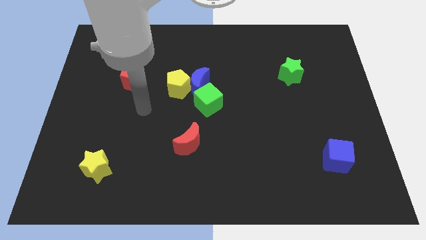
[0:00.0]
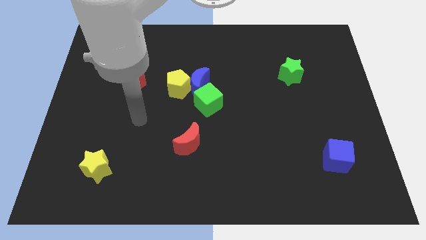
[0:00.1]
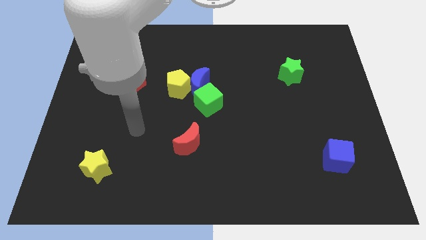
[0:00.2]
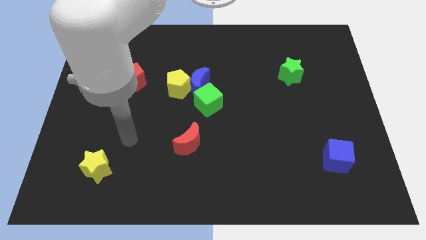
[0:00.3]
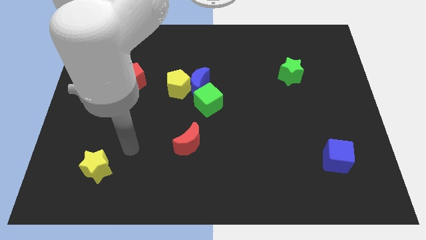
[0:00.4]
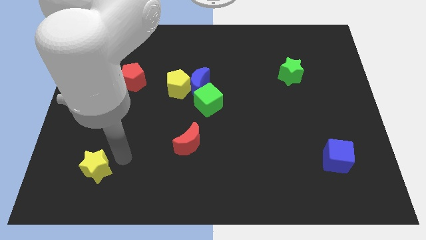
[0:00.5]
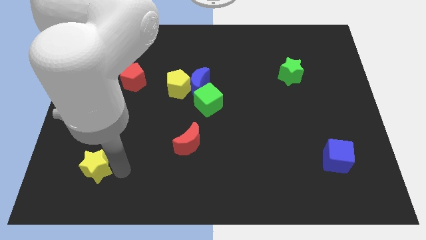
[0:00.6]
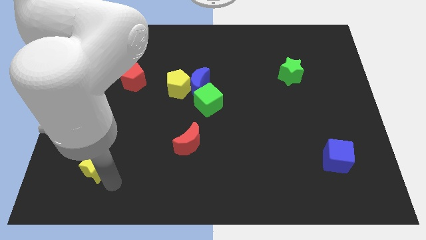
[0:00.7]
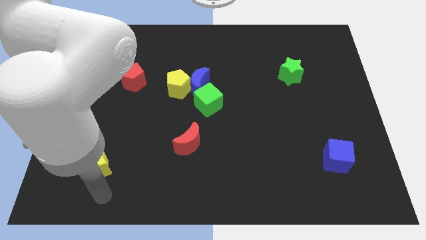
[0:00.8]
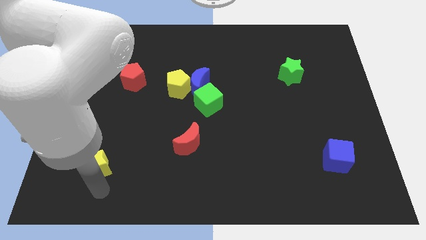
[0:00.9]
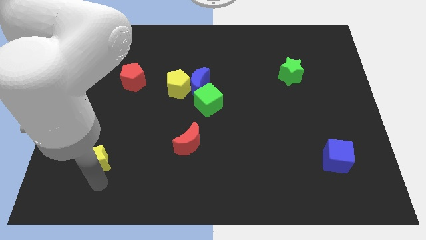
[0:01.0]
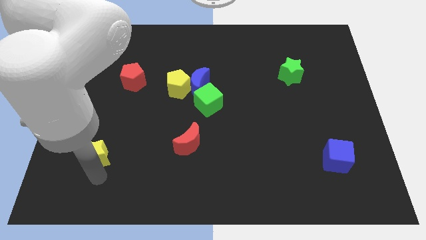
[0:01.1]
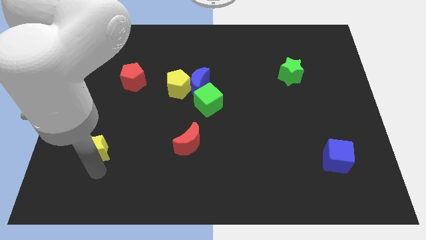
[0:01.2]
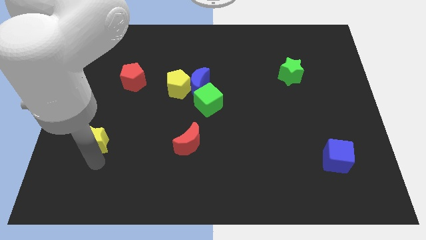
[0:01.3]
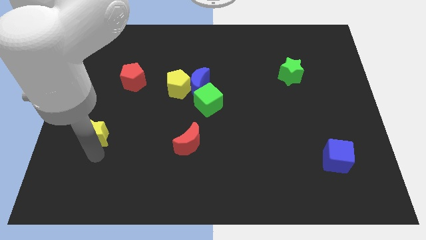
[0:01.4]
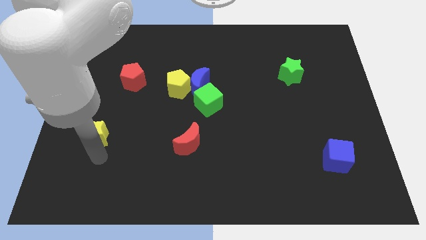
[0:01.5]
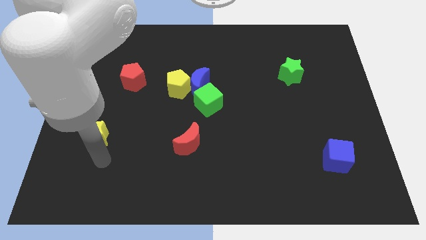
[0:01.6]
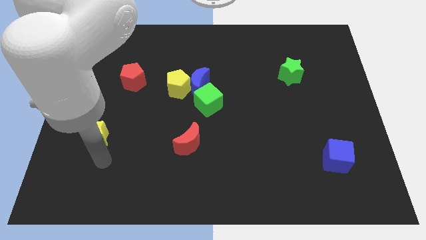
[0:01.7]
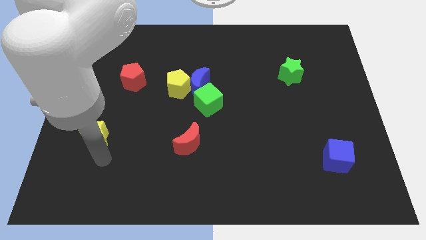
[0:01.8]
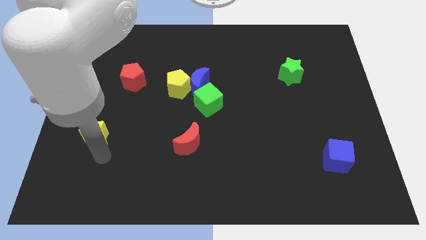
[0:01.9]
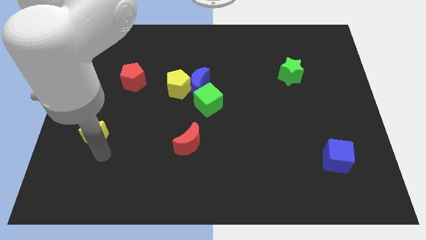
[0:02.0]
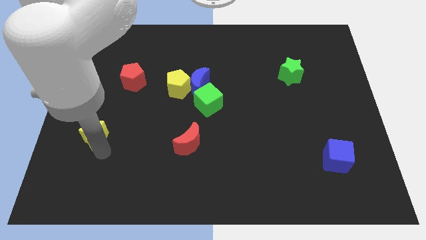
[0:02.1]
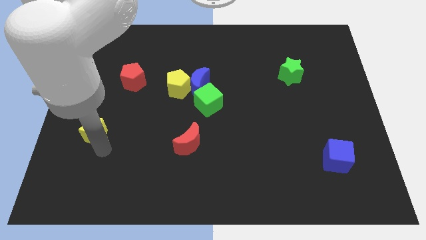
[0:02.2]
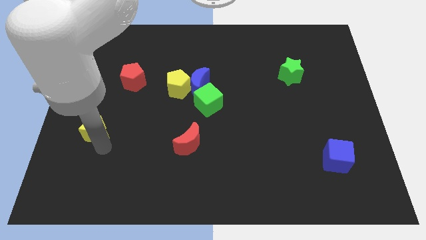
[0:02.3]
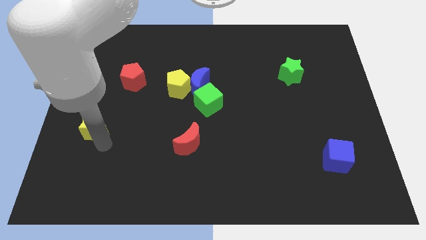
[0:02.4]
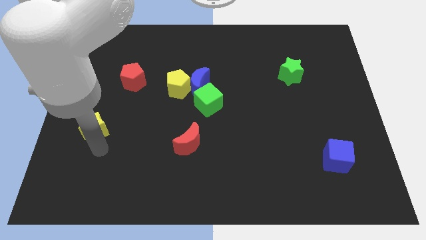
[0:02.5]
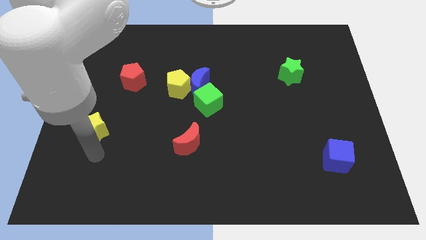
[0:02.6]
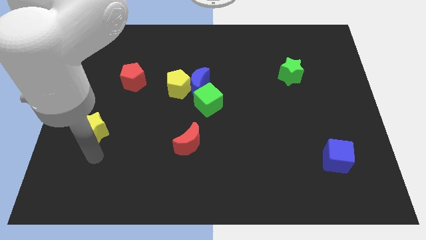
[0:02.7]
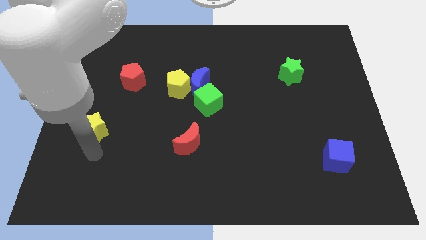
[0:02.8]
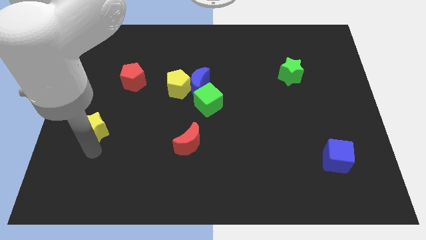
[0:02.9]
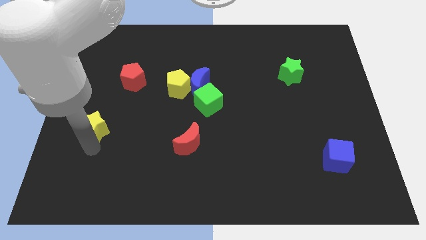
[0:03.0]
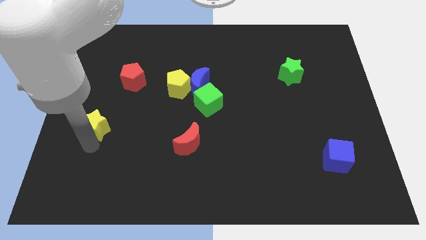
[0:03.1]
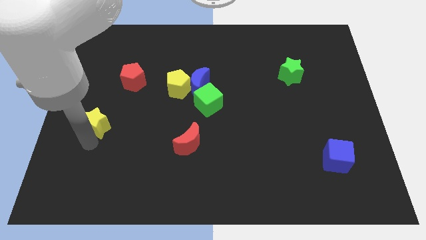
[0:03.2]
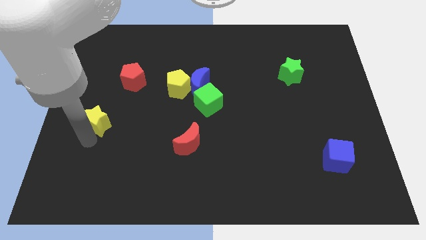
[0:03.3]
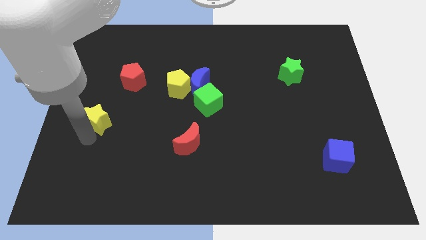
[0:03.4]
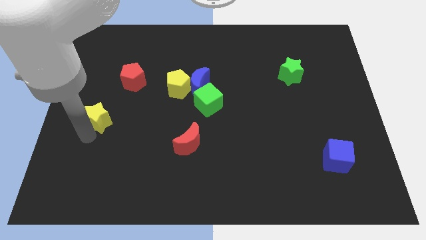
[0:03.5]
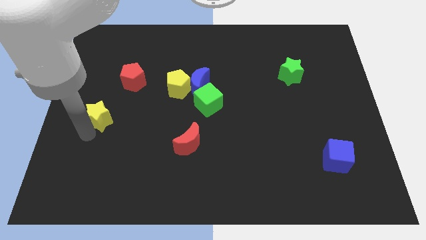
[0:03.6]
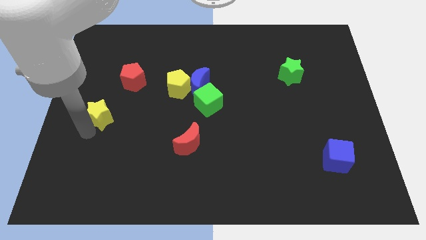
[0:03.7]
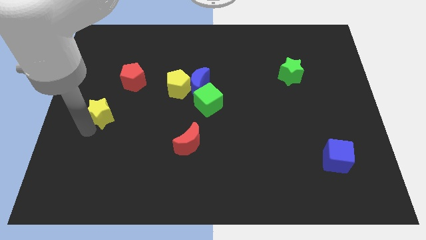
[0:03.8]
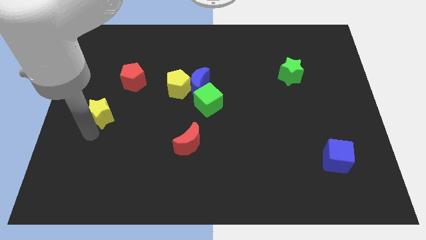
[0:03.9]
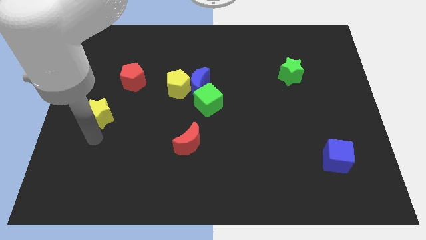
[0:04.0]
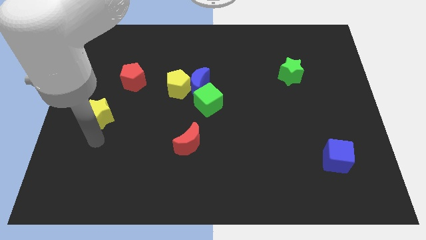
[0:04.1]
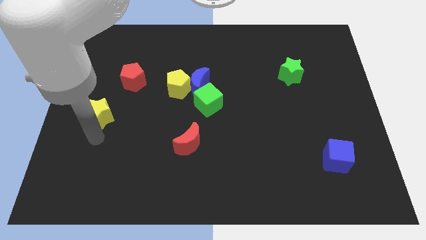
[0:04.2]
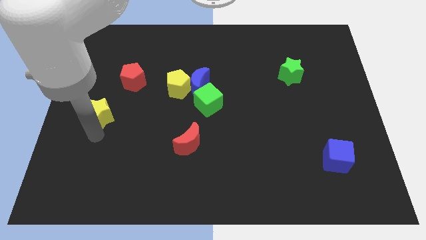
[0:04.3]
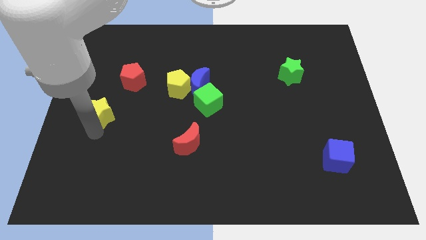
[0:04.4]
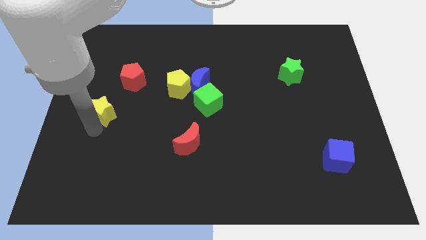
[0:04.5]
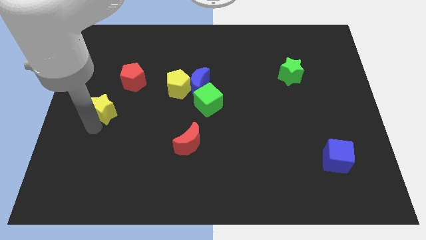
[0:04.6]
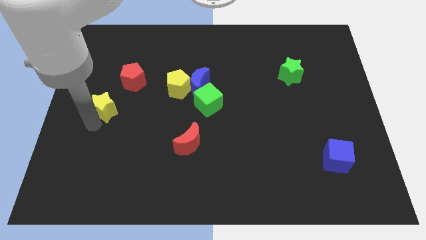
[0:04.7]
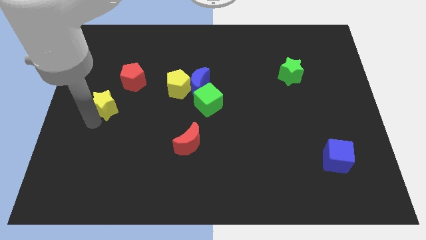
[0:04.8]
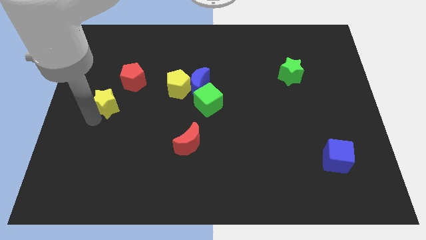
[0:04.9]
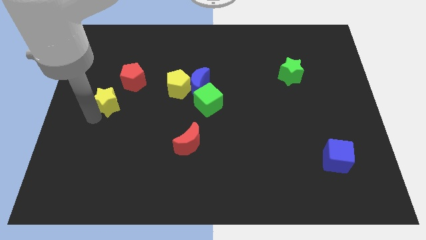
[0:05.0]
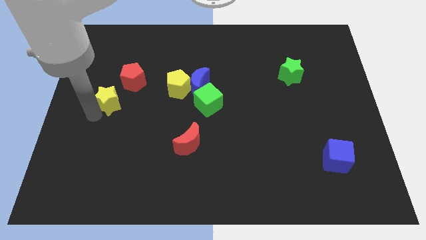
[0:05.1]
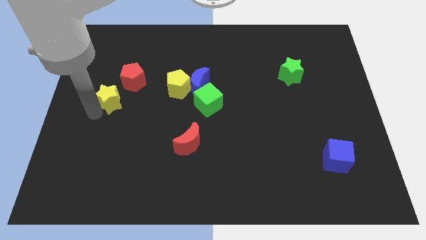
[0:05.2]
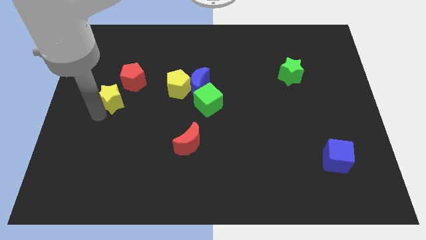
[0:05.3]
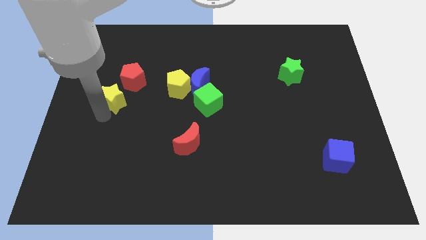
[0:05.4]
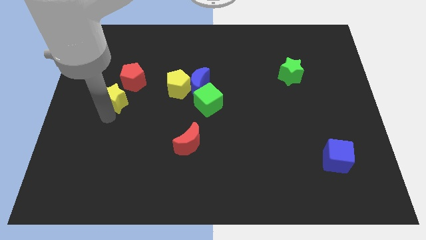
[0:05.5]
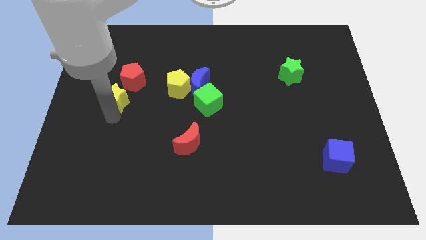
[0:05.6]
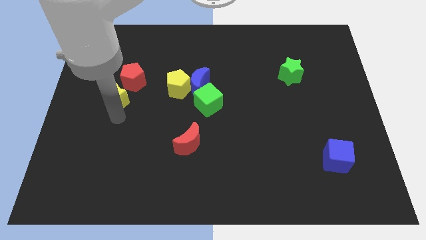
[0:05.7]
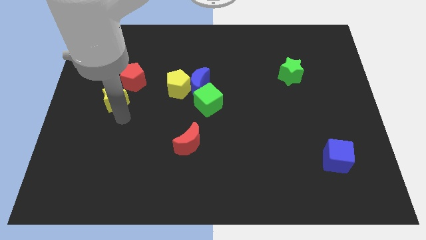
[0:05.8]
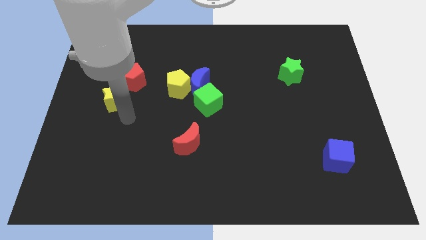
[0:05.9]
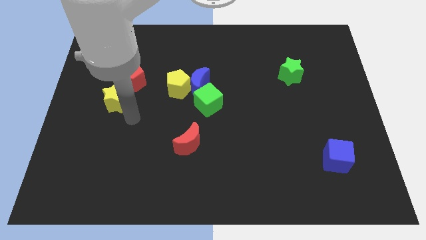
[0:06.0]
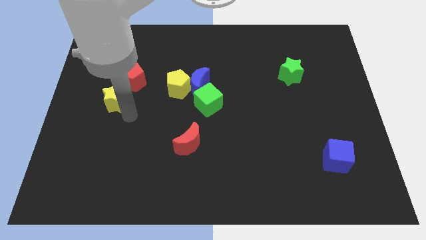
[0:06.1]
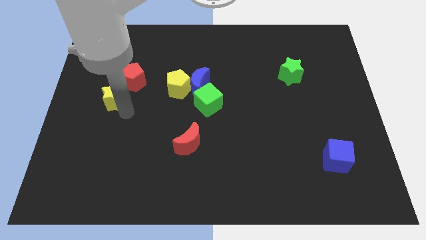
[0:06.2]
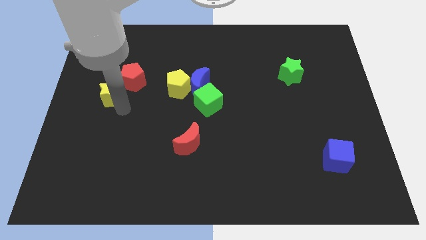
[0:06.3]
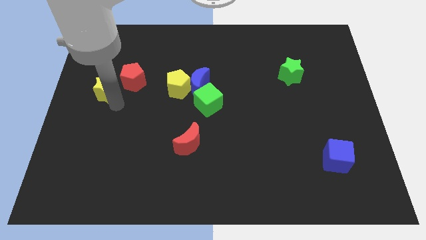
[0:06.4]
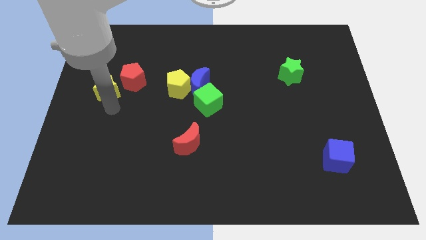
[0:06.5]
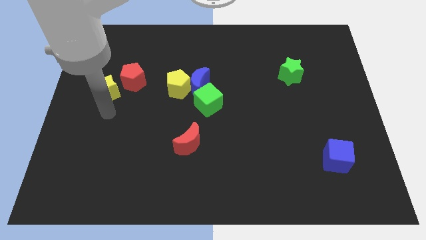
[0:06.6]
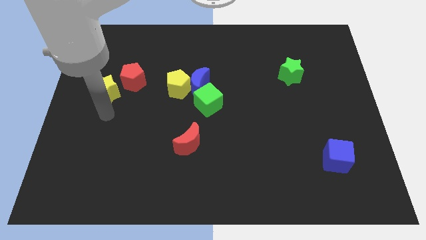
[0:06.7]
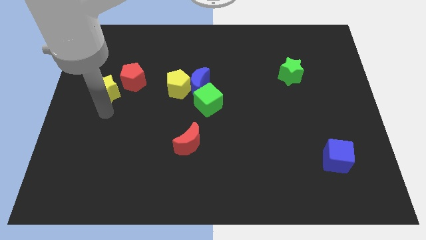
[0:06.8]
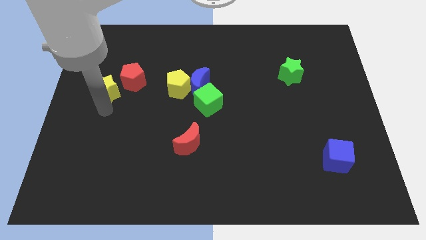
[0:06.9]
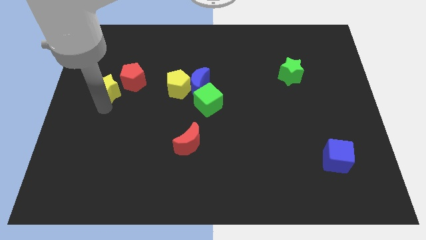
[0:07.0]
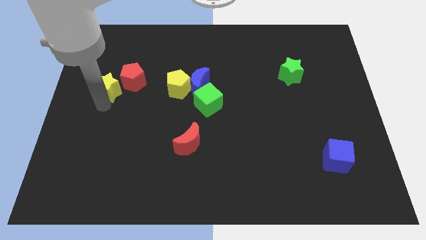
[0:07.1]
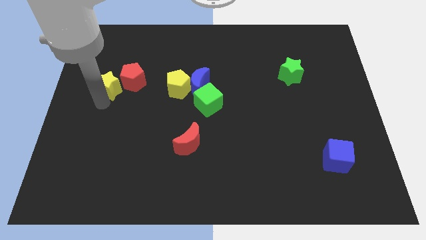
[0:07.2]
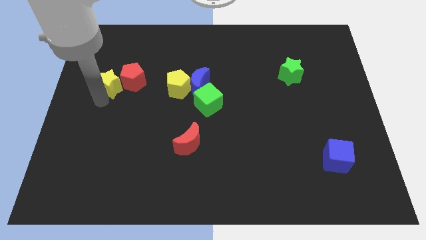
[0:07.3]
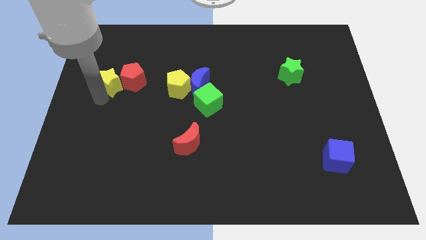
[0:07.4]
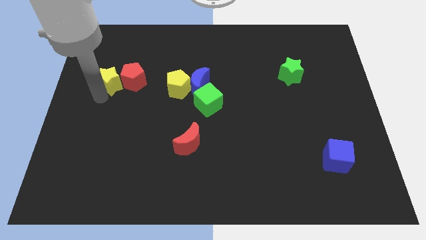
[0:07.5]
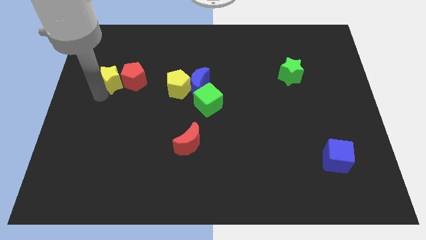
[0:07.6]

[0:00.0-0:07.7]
move the yellow star to the top left side of the red pentagon
